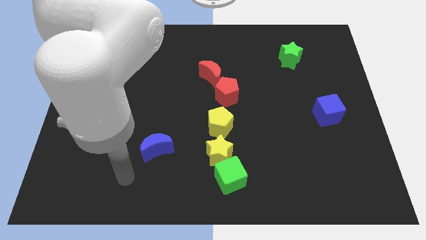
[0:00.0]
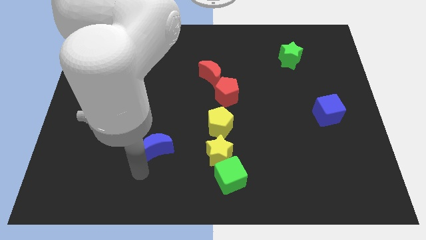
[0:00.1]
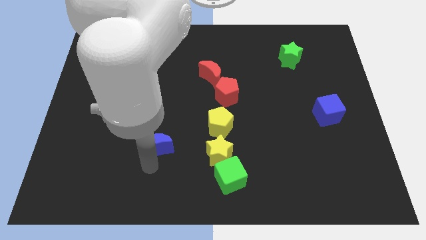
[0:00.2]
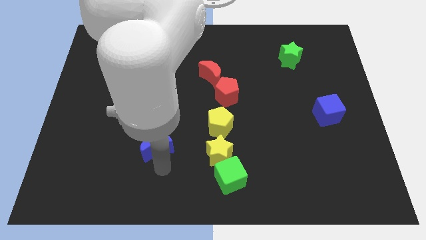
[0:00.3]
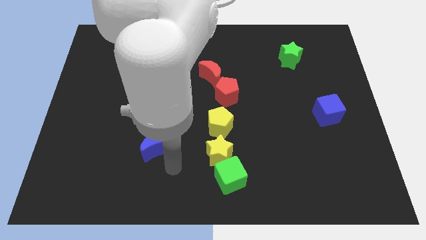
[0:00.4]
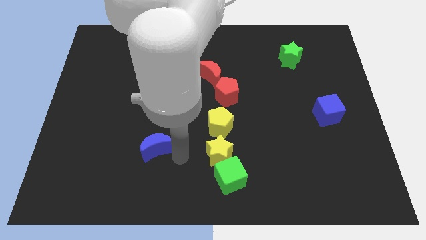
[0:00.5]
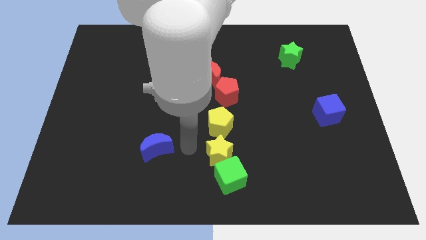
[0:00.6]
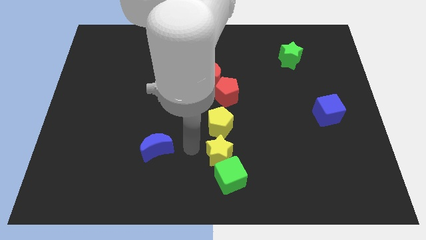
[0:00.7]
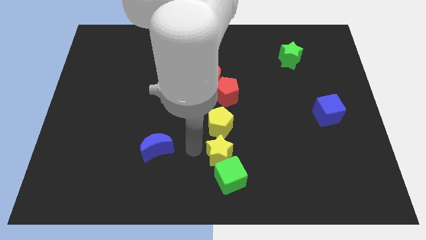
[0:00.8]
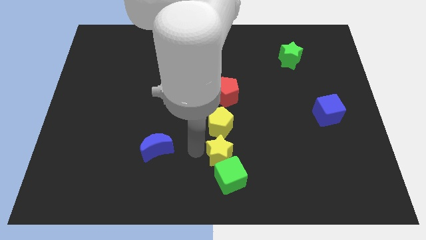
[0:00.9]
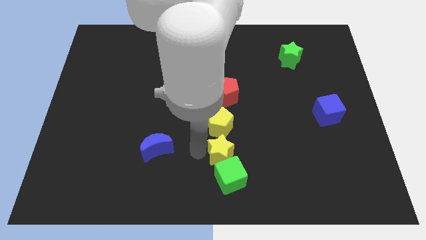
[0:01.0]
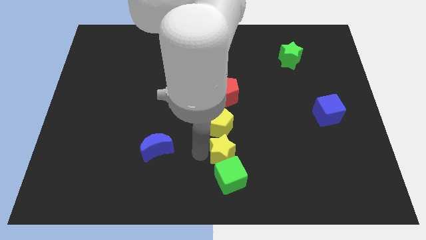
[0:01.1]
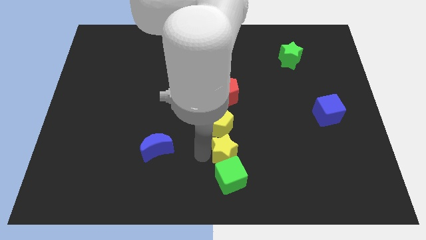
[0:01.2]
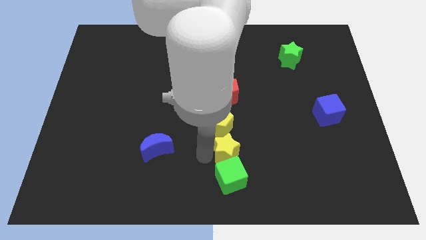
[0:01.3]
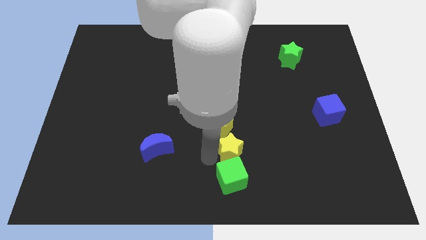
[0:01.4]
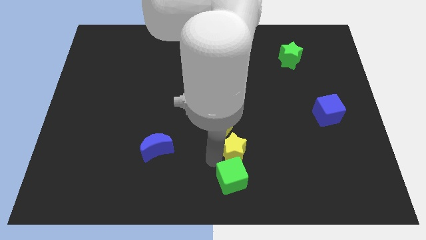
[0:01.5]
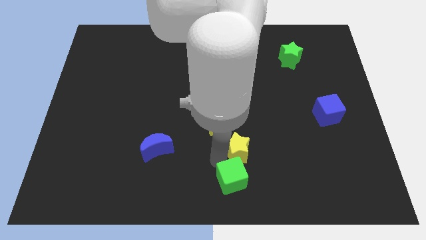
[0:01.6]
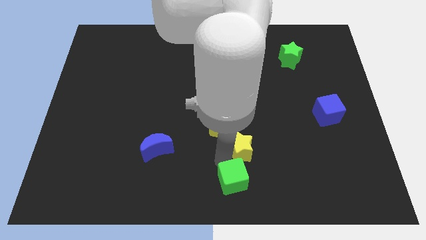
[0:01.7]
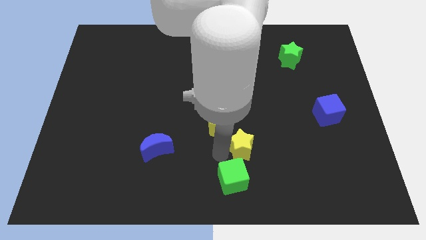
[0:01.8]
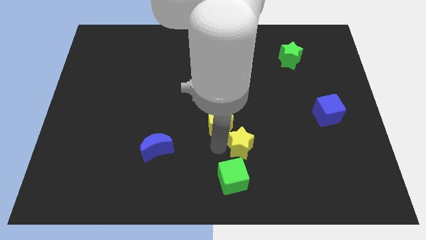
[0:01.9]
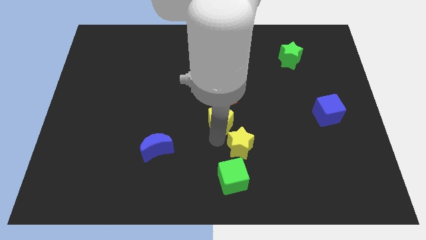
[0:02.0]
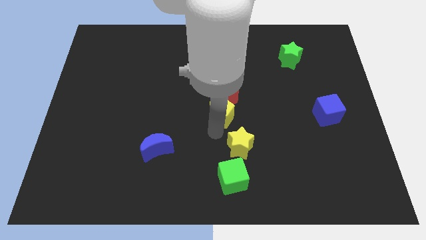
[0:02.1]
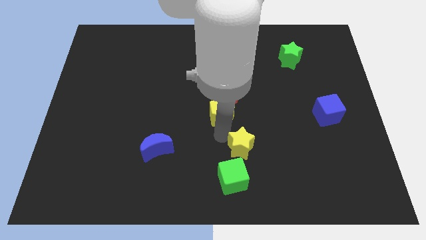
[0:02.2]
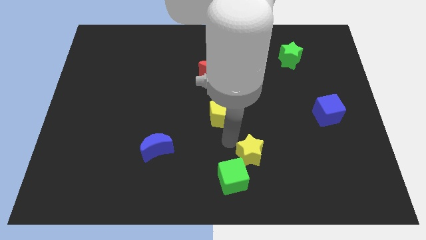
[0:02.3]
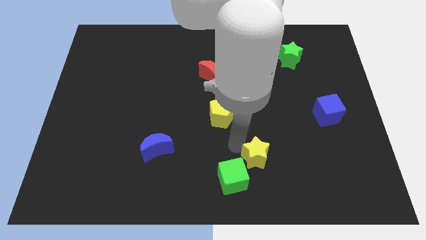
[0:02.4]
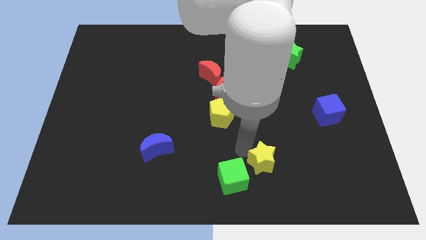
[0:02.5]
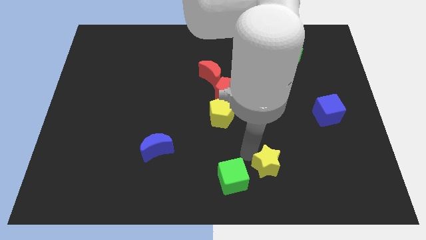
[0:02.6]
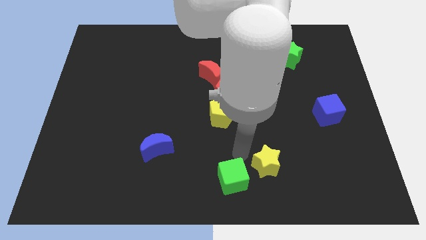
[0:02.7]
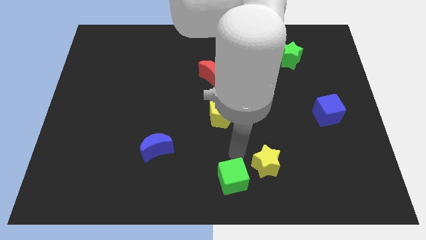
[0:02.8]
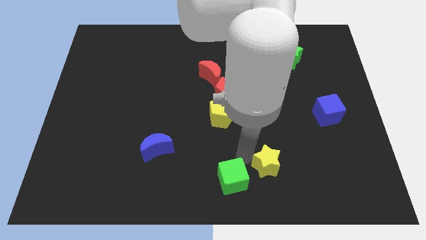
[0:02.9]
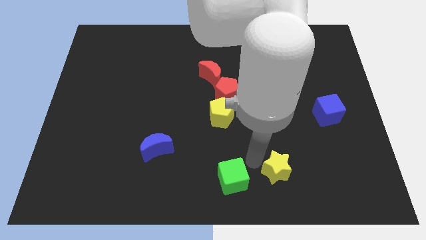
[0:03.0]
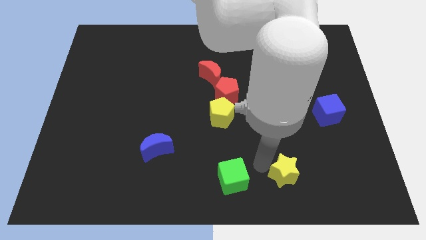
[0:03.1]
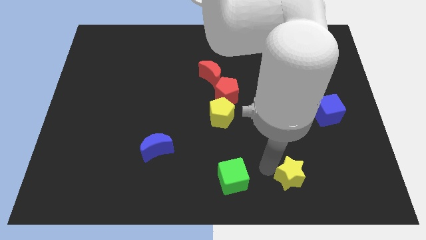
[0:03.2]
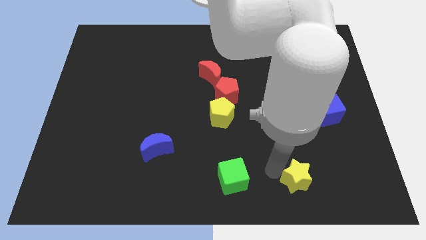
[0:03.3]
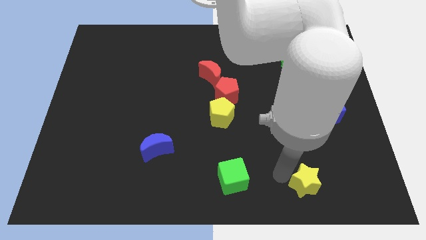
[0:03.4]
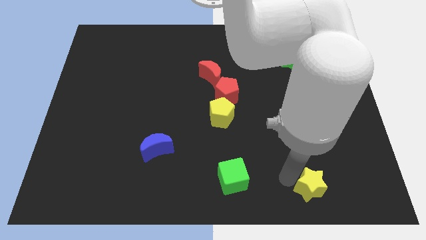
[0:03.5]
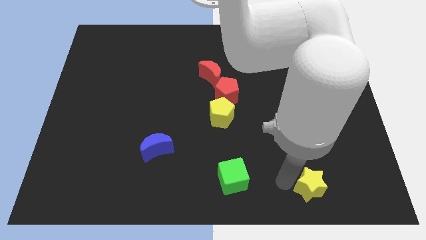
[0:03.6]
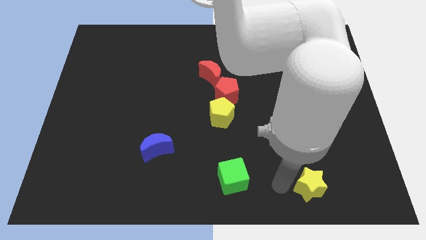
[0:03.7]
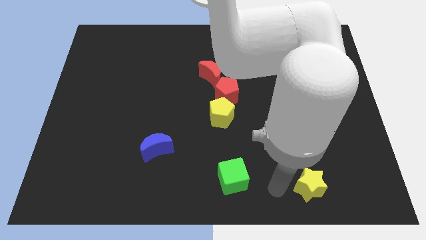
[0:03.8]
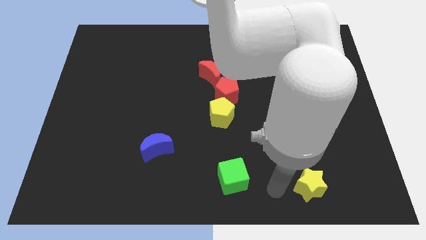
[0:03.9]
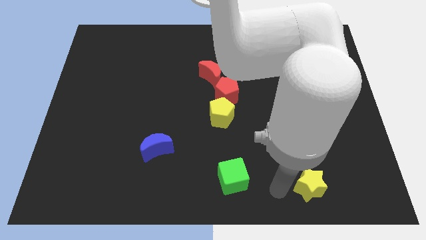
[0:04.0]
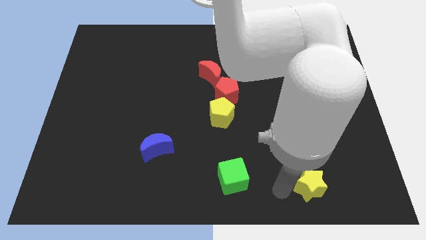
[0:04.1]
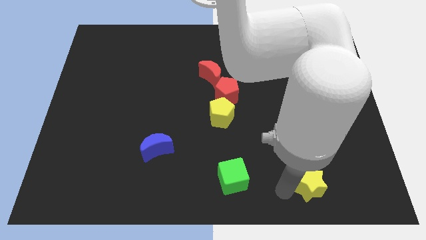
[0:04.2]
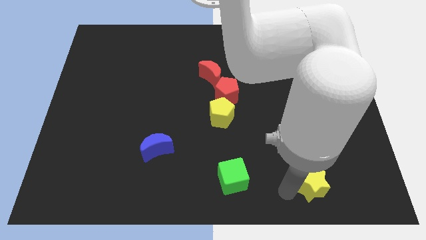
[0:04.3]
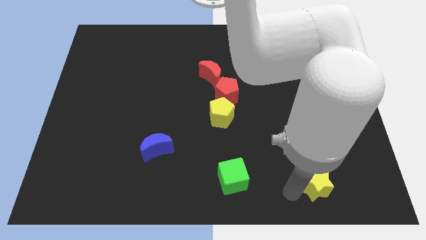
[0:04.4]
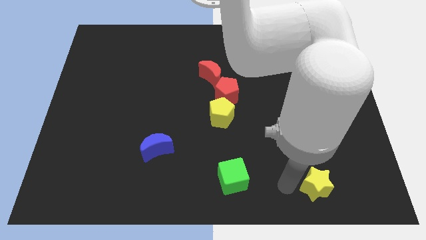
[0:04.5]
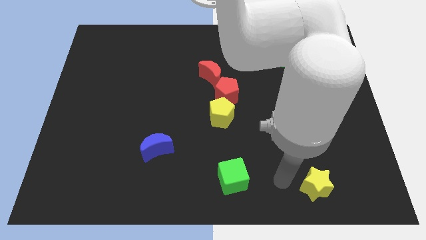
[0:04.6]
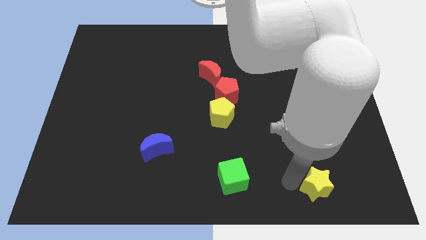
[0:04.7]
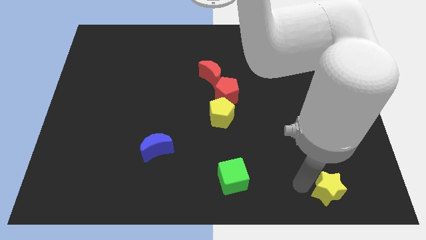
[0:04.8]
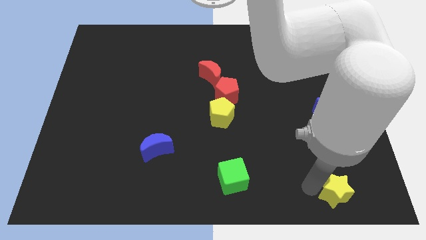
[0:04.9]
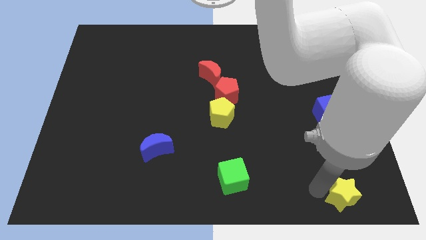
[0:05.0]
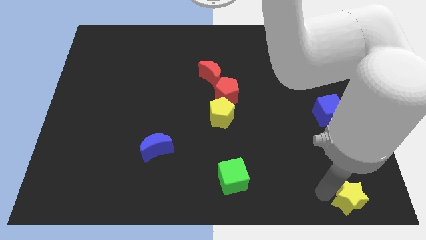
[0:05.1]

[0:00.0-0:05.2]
slide the yellow star to the bottom right

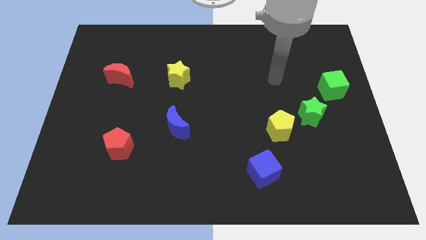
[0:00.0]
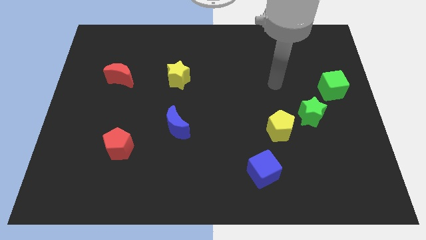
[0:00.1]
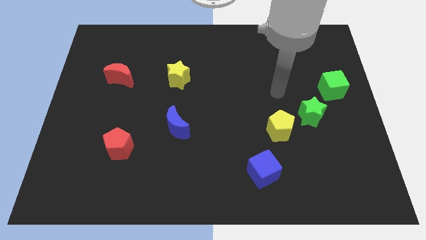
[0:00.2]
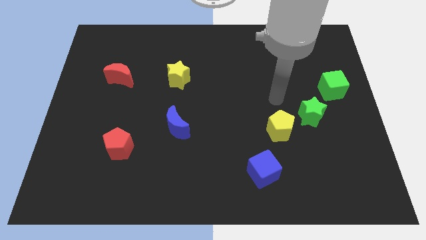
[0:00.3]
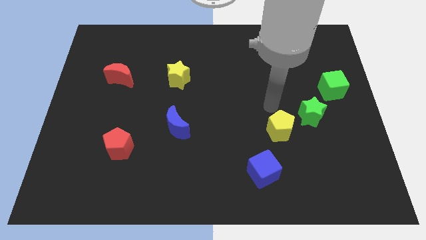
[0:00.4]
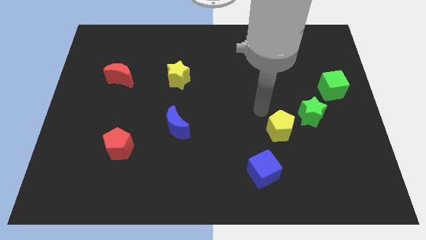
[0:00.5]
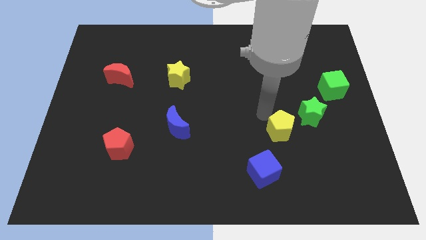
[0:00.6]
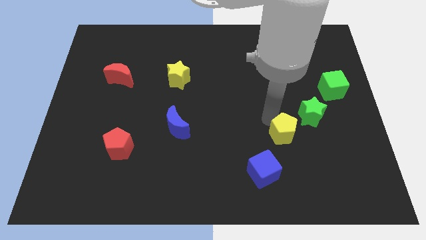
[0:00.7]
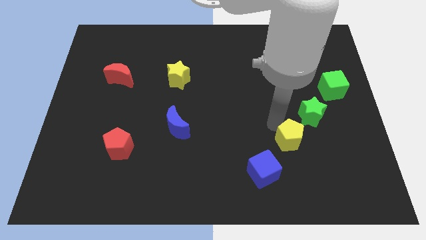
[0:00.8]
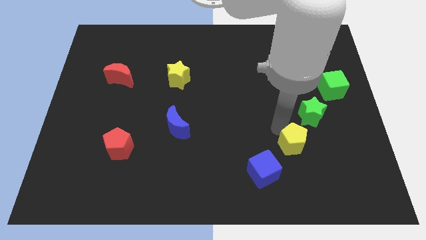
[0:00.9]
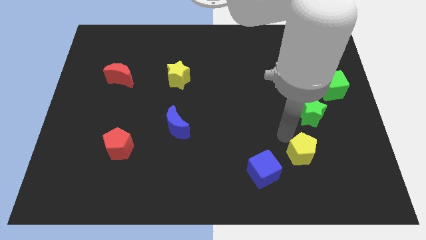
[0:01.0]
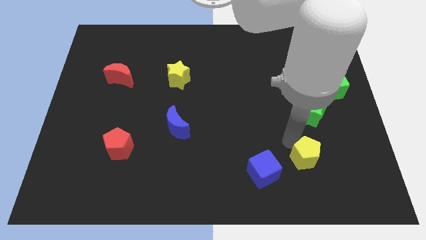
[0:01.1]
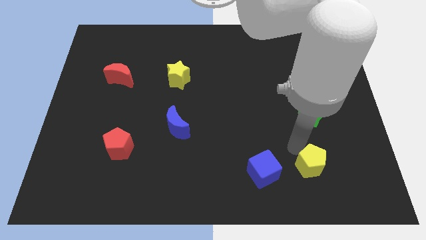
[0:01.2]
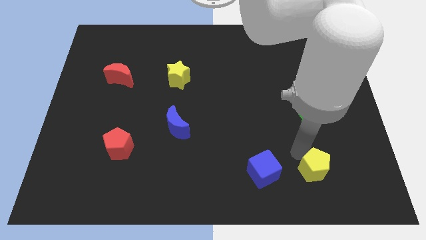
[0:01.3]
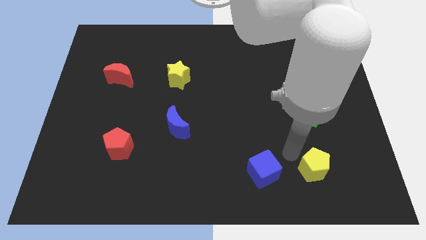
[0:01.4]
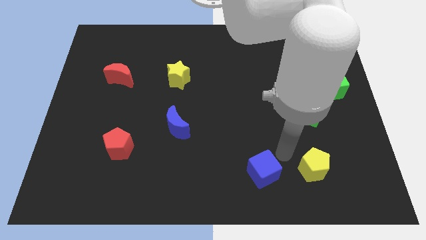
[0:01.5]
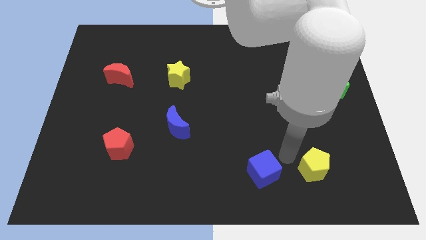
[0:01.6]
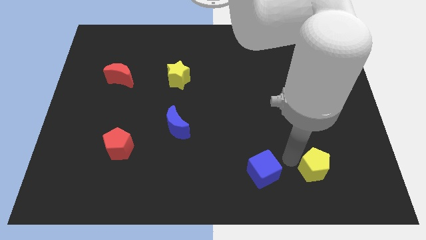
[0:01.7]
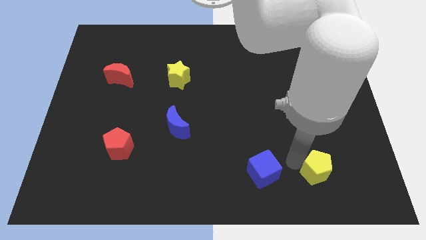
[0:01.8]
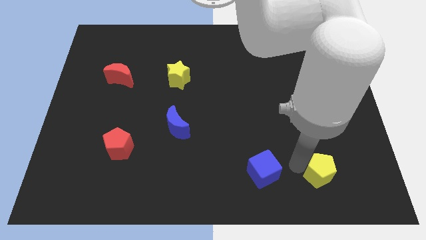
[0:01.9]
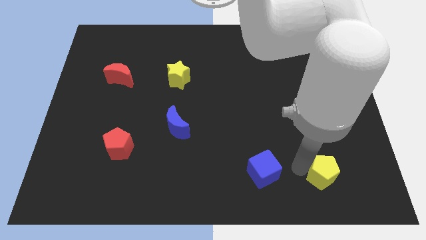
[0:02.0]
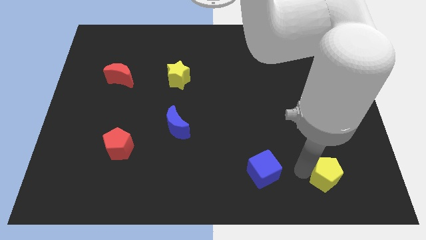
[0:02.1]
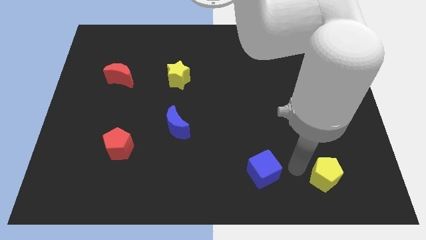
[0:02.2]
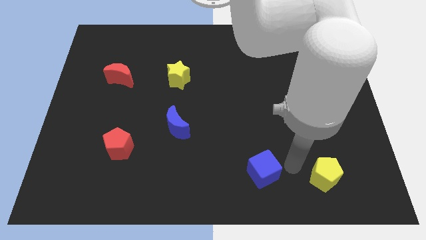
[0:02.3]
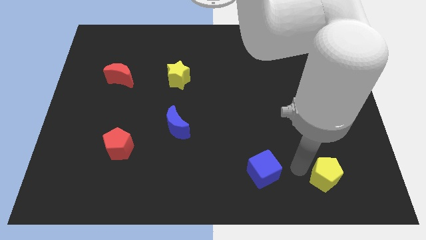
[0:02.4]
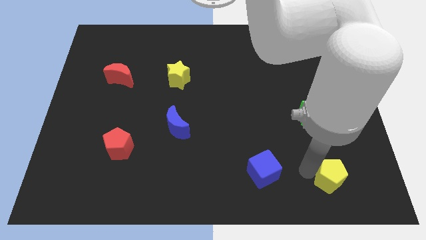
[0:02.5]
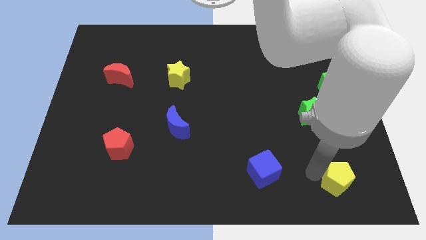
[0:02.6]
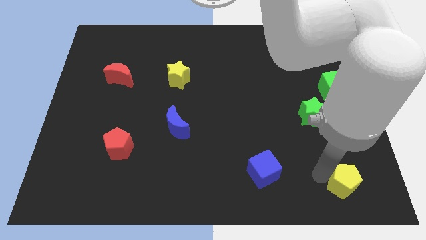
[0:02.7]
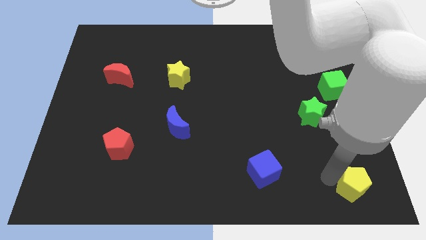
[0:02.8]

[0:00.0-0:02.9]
move the yellow pentagon to the bottom right corner
